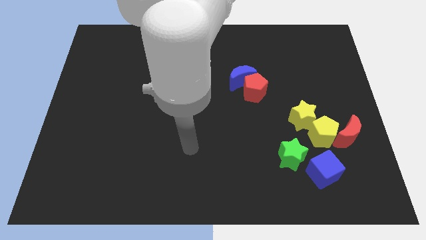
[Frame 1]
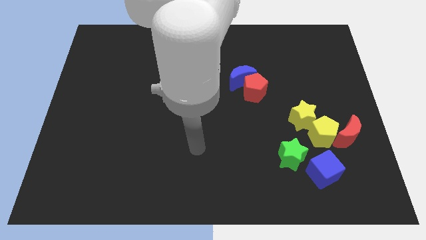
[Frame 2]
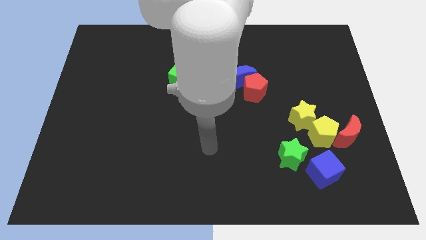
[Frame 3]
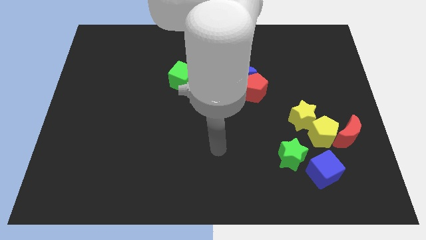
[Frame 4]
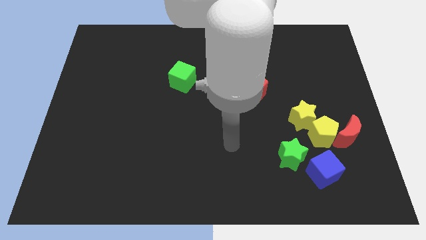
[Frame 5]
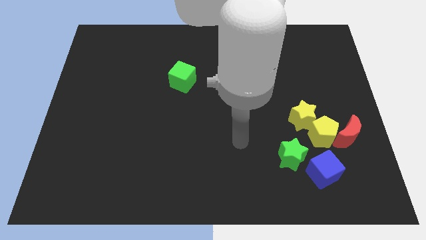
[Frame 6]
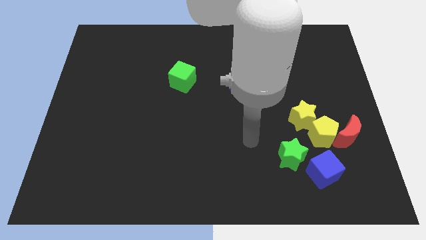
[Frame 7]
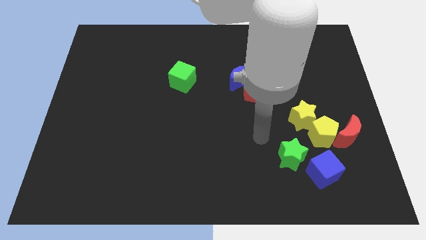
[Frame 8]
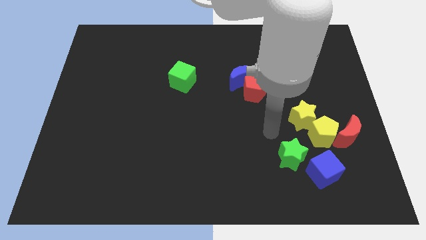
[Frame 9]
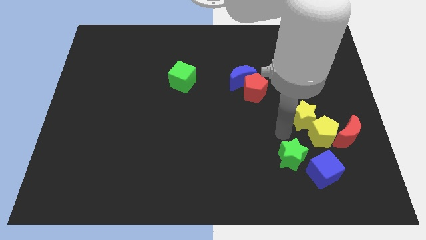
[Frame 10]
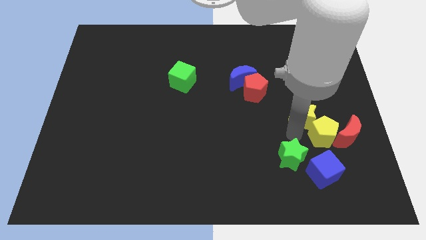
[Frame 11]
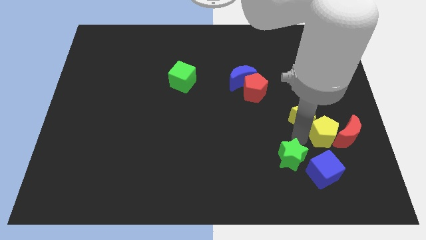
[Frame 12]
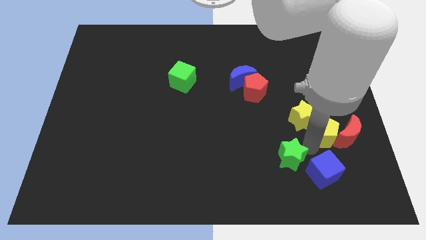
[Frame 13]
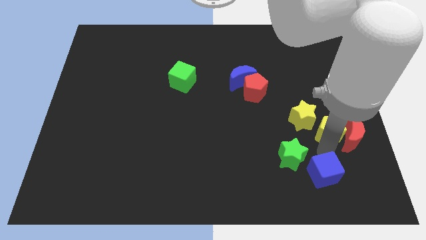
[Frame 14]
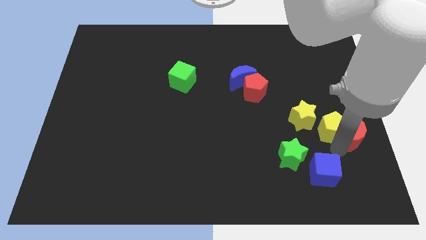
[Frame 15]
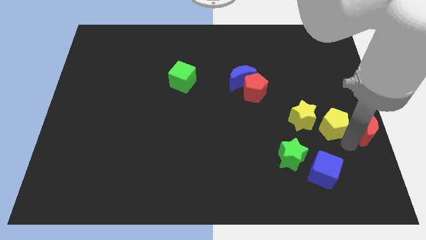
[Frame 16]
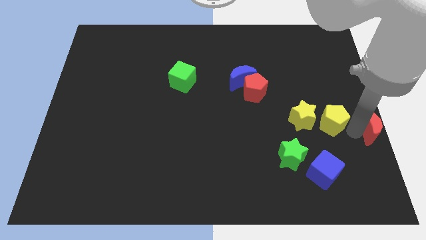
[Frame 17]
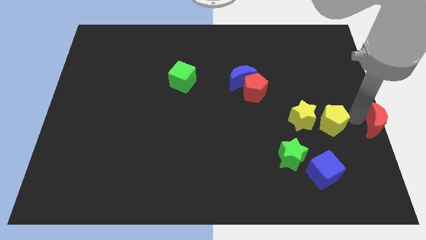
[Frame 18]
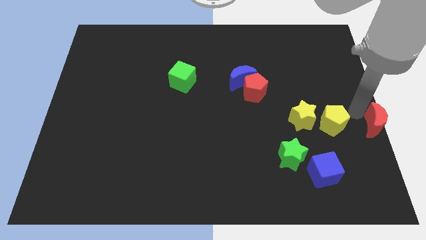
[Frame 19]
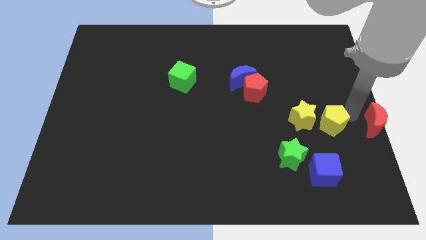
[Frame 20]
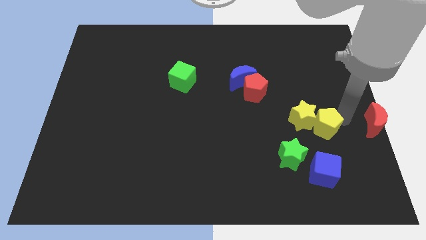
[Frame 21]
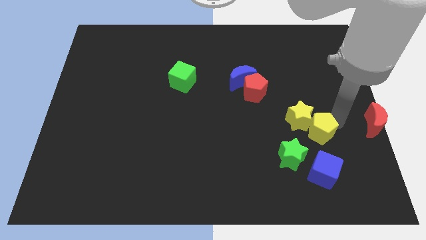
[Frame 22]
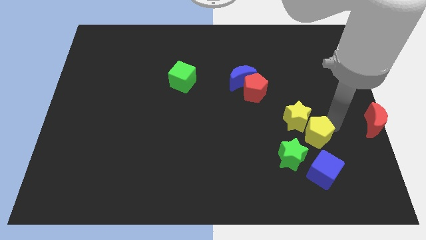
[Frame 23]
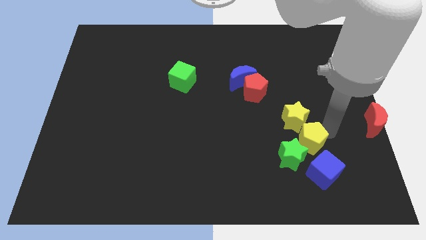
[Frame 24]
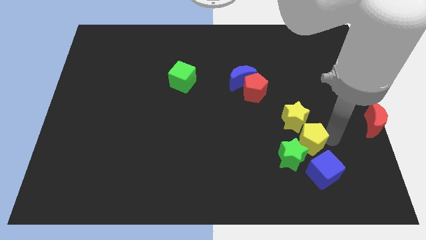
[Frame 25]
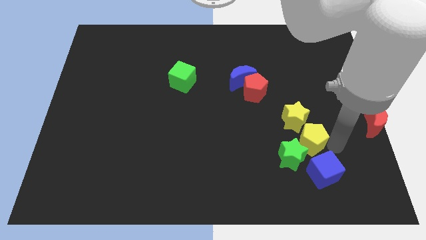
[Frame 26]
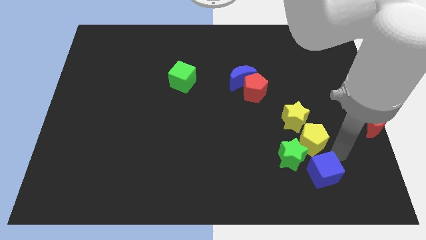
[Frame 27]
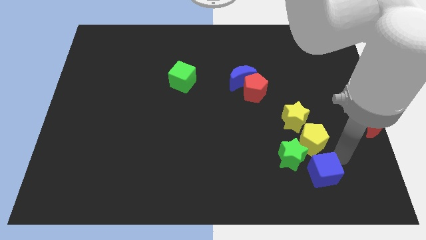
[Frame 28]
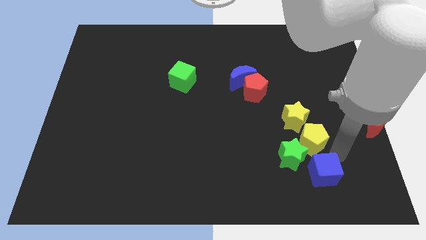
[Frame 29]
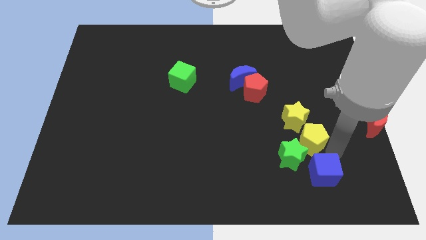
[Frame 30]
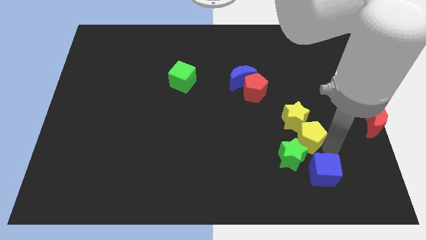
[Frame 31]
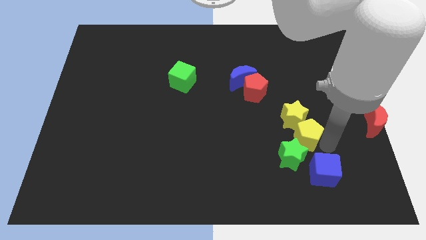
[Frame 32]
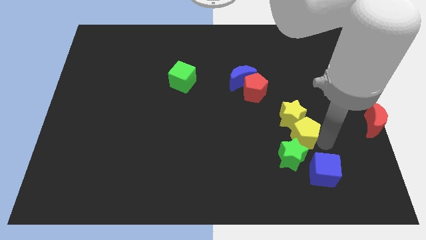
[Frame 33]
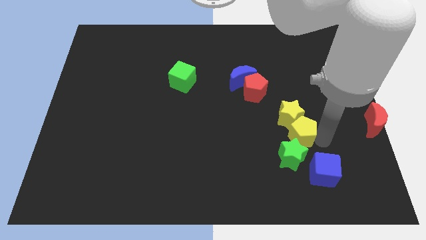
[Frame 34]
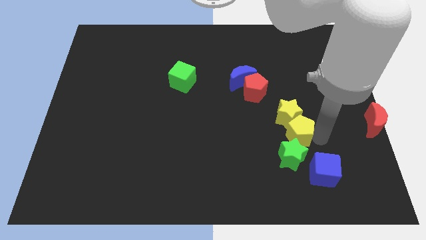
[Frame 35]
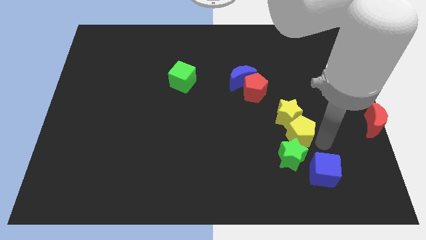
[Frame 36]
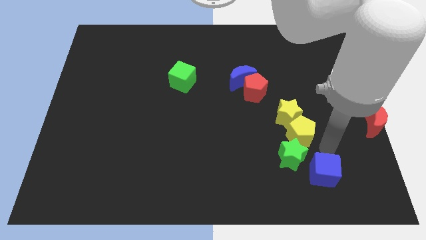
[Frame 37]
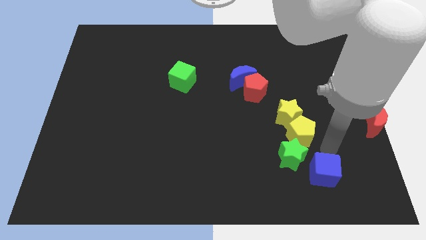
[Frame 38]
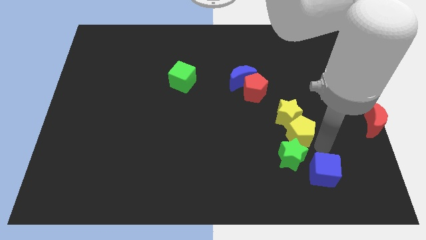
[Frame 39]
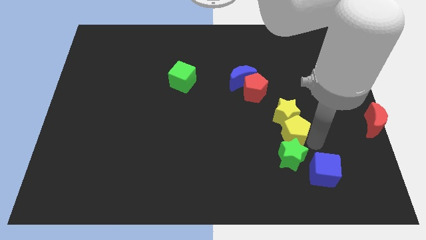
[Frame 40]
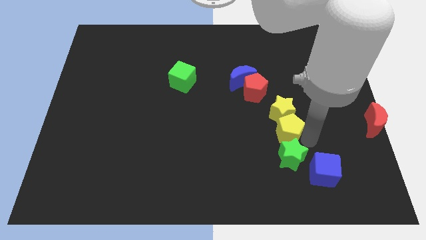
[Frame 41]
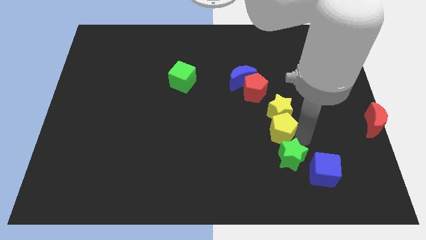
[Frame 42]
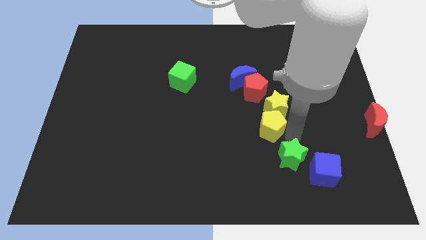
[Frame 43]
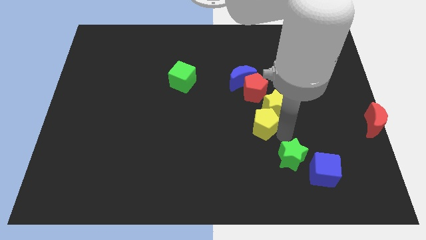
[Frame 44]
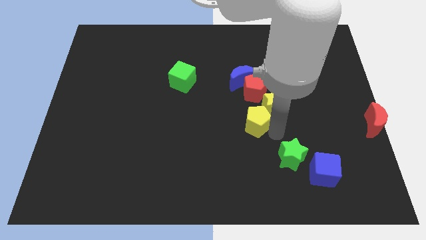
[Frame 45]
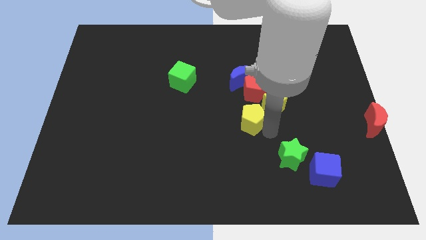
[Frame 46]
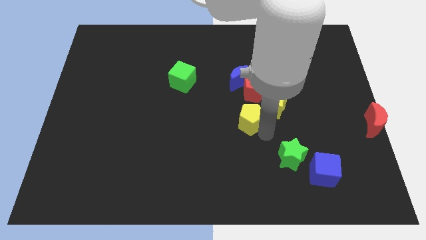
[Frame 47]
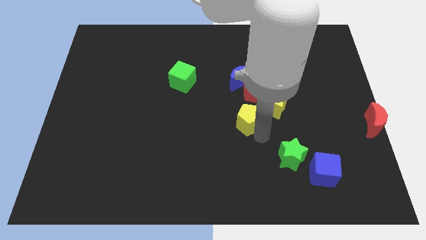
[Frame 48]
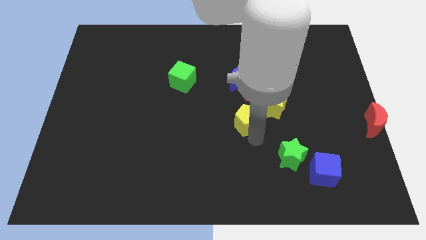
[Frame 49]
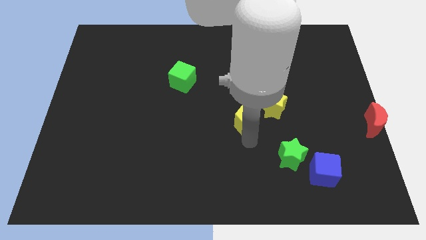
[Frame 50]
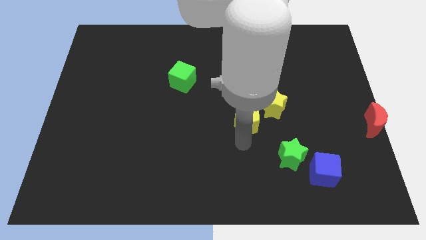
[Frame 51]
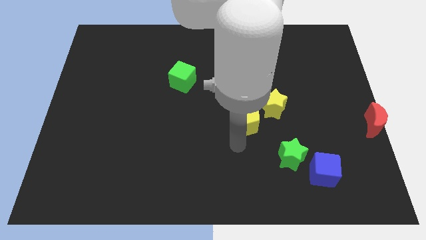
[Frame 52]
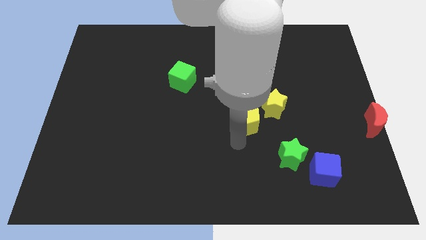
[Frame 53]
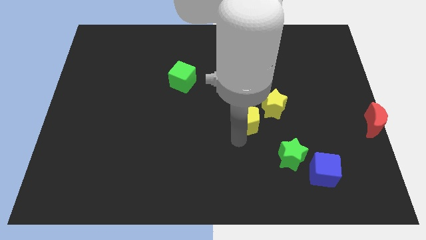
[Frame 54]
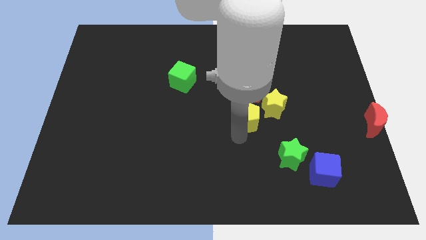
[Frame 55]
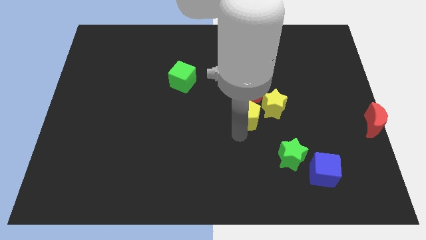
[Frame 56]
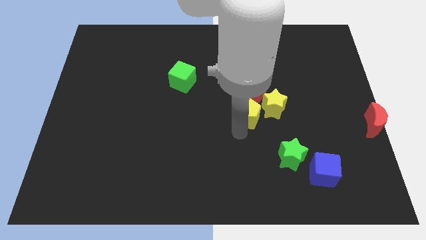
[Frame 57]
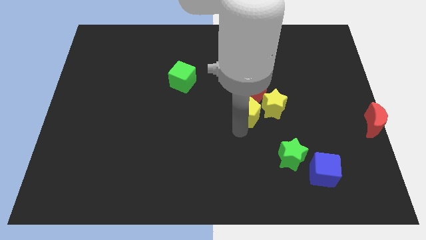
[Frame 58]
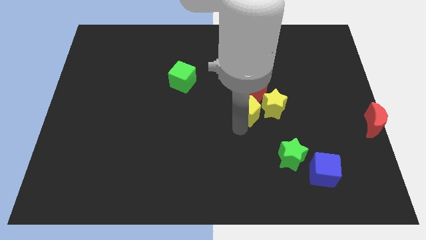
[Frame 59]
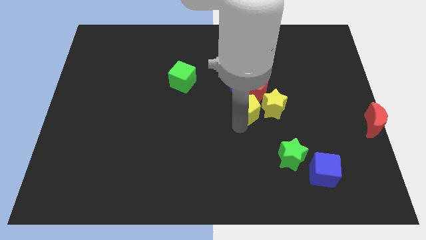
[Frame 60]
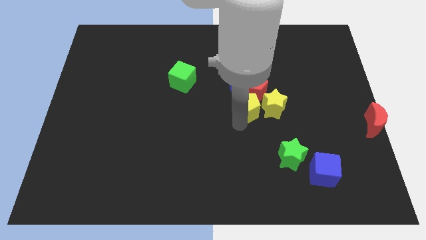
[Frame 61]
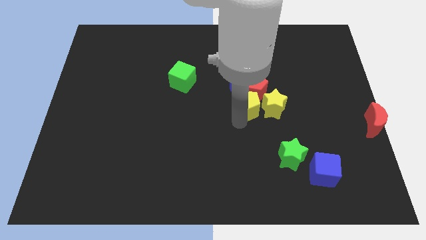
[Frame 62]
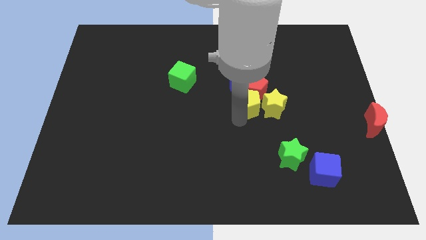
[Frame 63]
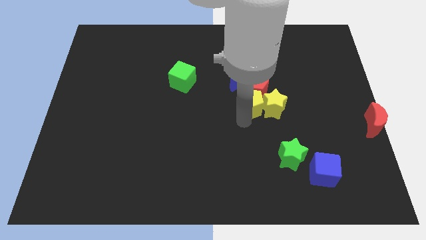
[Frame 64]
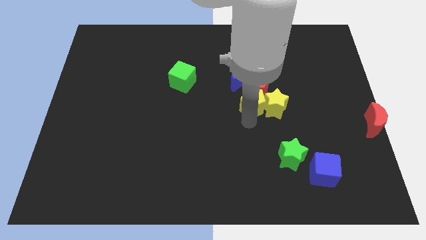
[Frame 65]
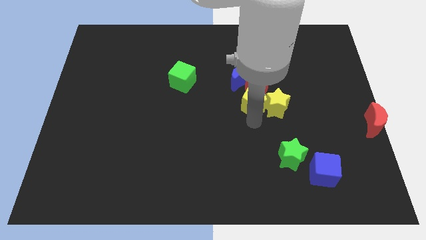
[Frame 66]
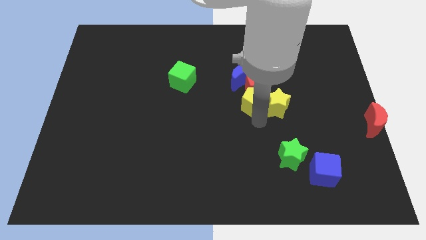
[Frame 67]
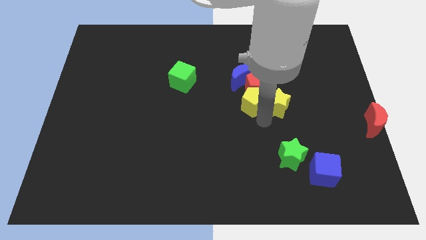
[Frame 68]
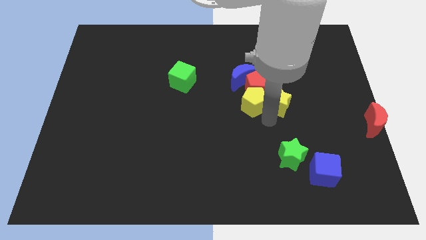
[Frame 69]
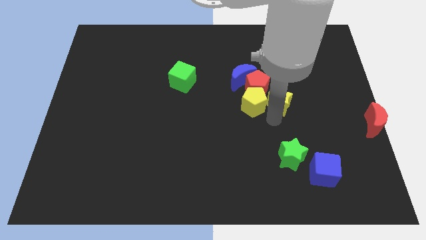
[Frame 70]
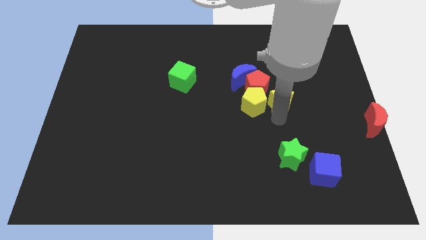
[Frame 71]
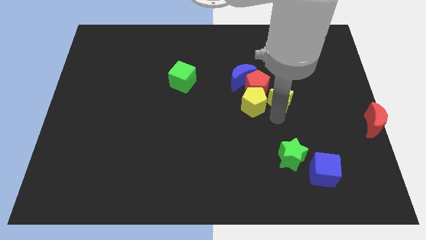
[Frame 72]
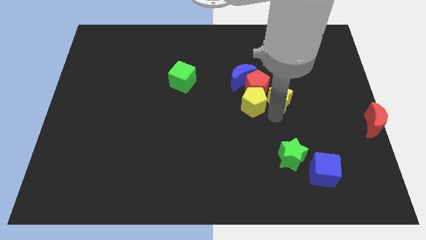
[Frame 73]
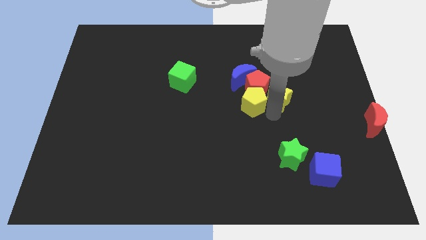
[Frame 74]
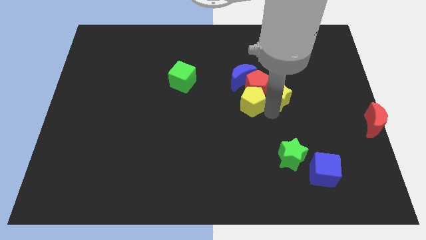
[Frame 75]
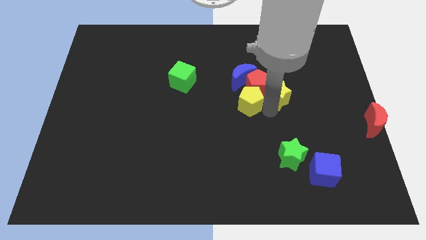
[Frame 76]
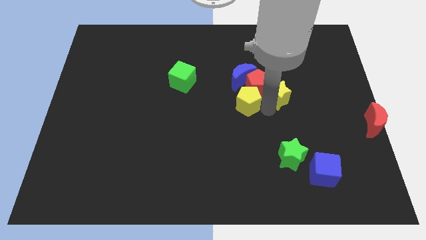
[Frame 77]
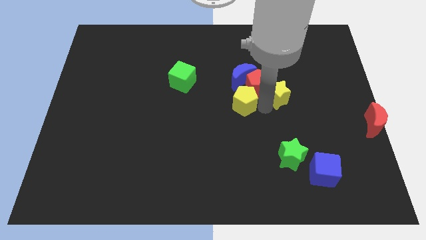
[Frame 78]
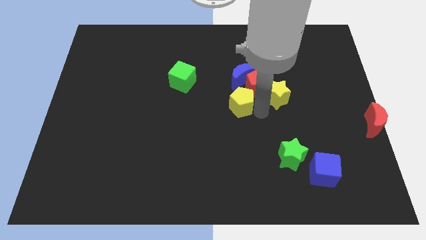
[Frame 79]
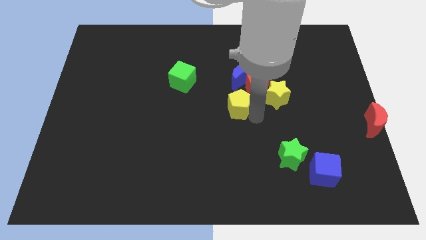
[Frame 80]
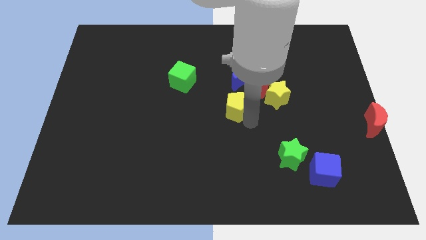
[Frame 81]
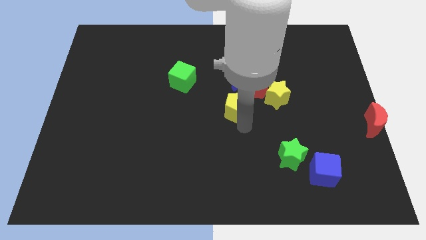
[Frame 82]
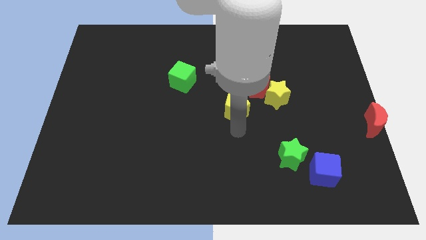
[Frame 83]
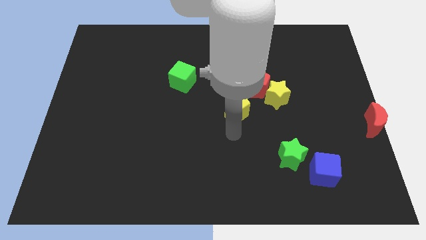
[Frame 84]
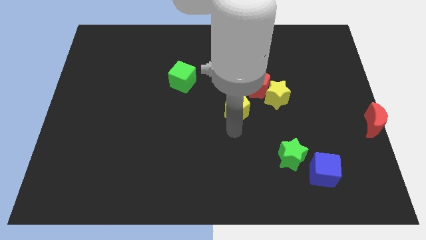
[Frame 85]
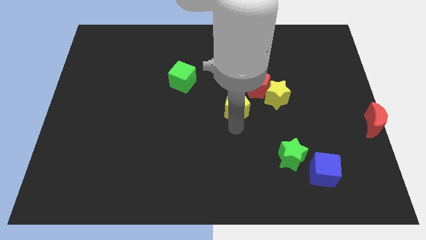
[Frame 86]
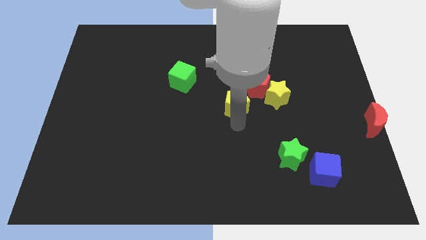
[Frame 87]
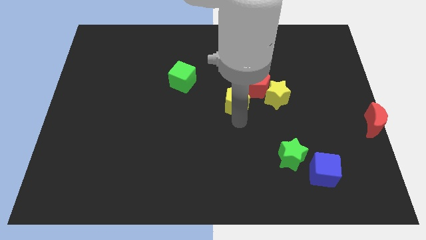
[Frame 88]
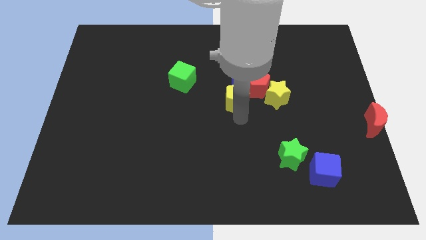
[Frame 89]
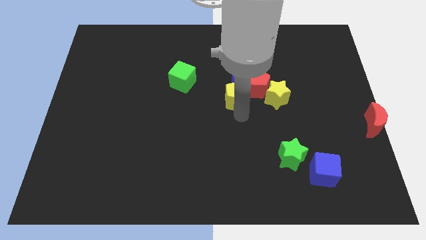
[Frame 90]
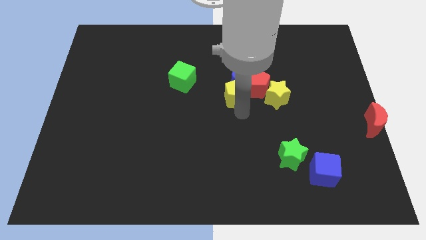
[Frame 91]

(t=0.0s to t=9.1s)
put the yellow pentagon towards the blue moon
